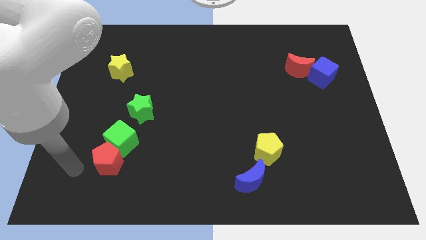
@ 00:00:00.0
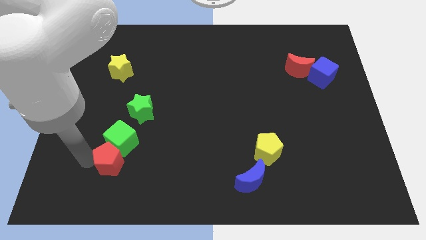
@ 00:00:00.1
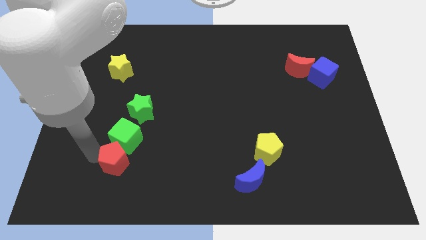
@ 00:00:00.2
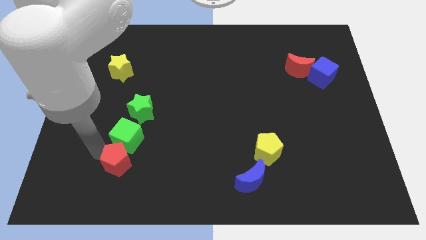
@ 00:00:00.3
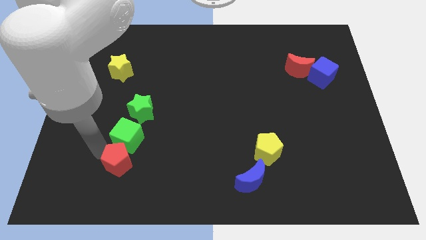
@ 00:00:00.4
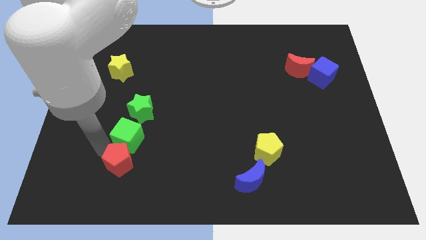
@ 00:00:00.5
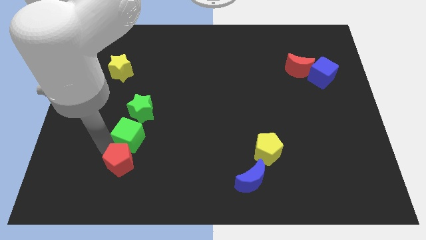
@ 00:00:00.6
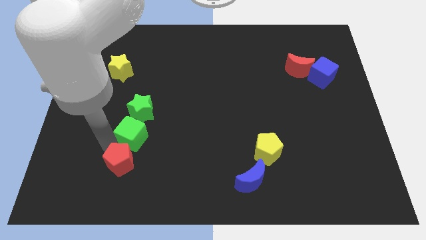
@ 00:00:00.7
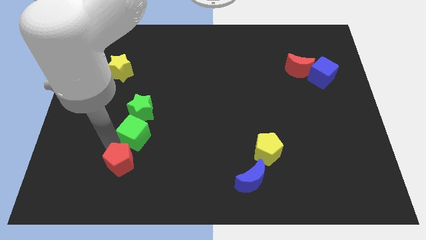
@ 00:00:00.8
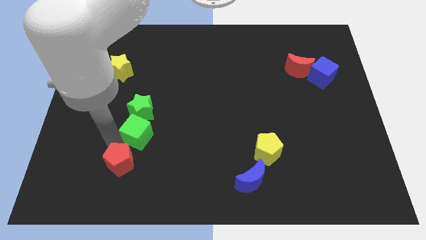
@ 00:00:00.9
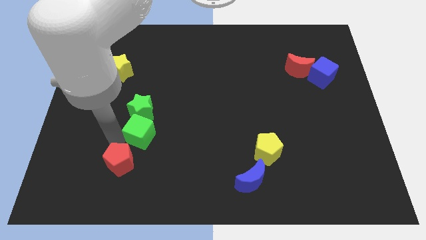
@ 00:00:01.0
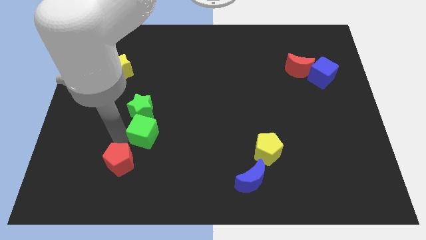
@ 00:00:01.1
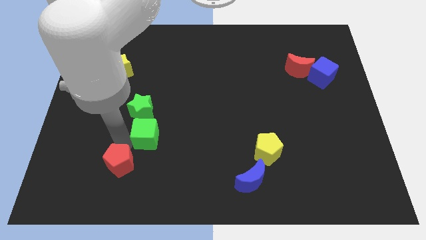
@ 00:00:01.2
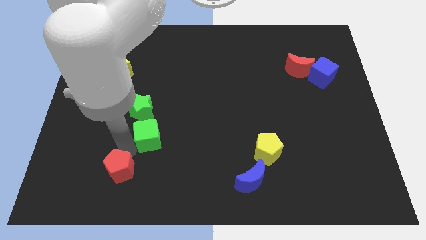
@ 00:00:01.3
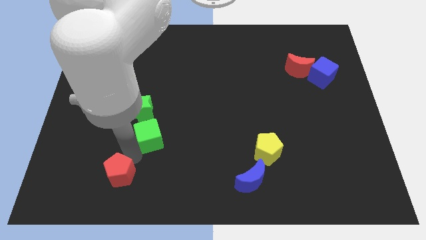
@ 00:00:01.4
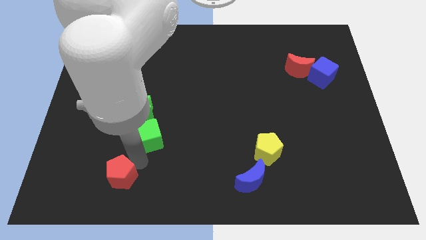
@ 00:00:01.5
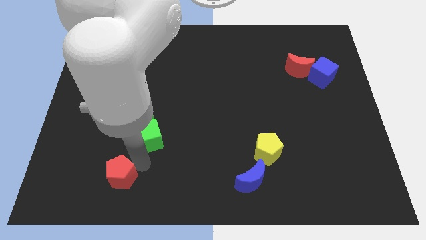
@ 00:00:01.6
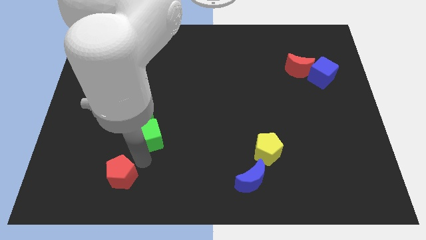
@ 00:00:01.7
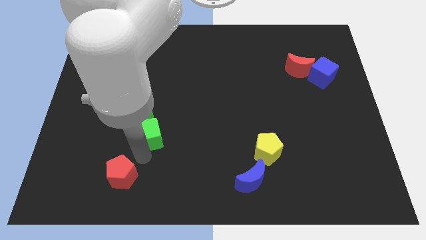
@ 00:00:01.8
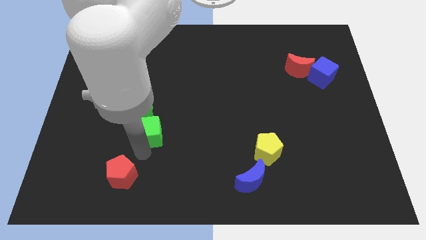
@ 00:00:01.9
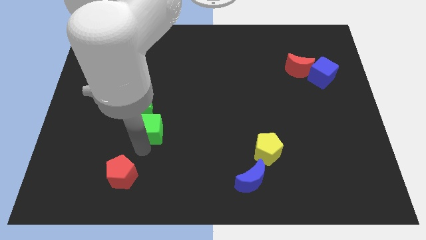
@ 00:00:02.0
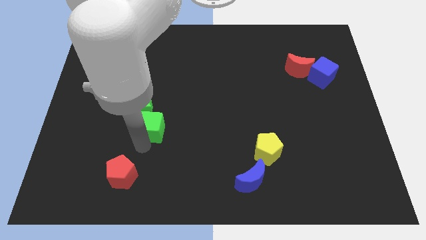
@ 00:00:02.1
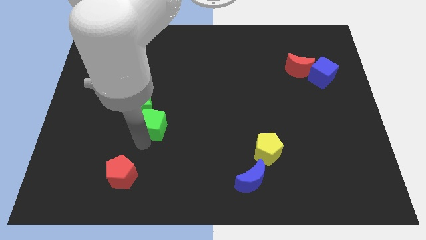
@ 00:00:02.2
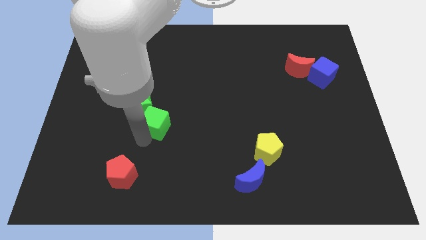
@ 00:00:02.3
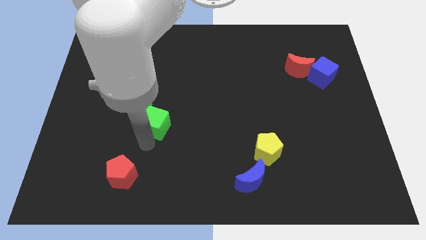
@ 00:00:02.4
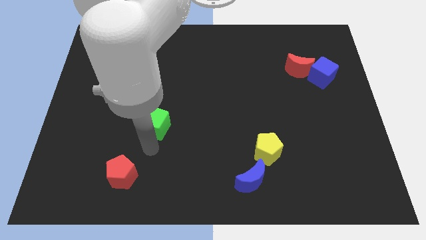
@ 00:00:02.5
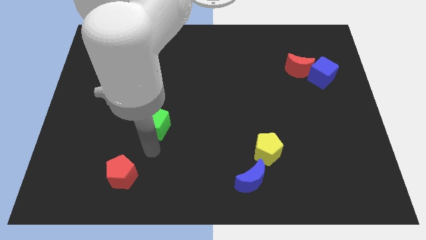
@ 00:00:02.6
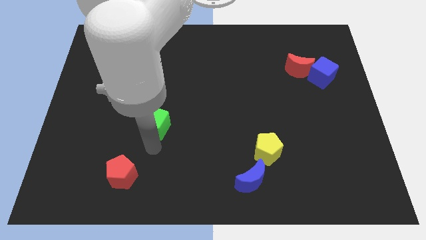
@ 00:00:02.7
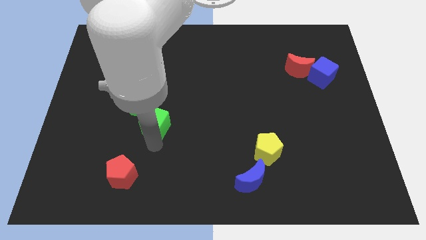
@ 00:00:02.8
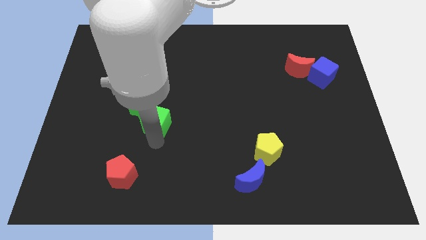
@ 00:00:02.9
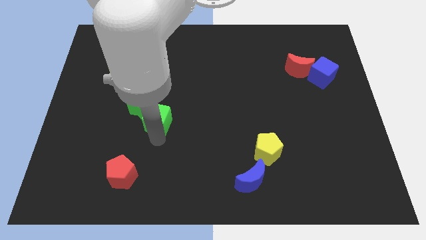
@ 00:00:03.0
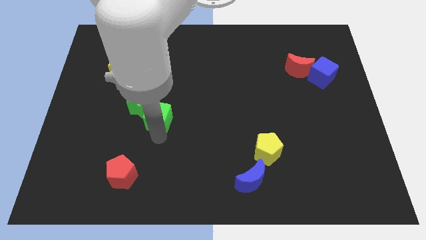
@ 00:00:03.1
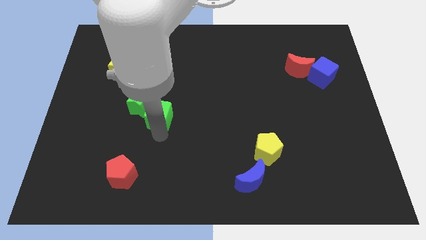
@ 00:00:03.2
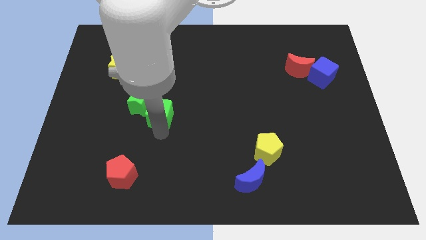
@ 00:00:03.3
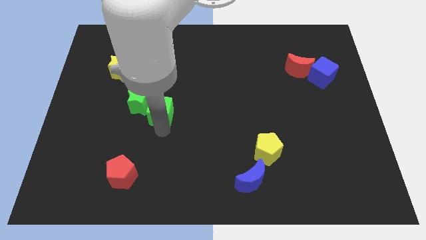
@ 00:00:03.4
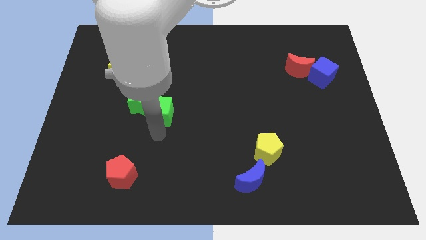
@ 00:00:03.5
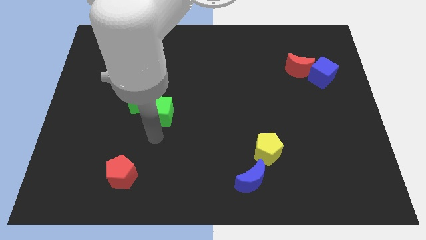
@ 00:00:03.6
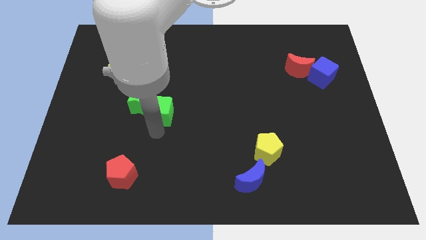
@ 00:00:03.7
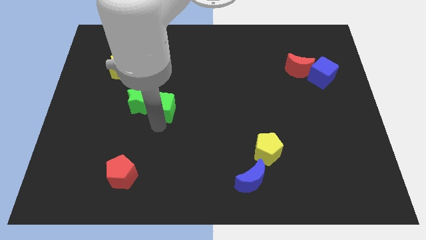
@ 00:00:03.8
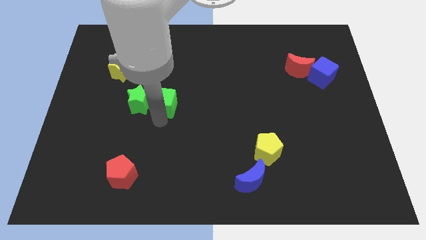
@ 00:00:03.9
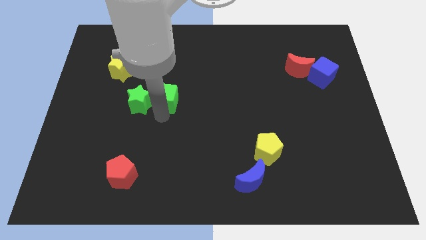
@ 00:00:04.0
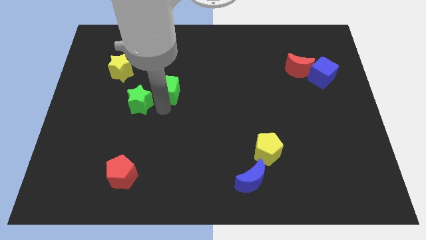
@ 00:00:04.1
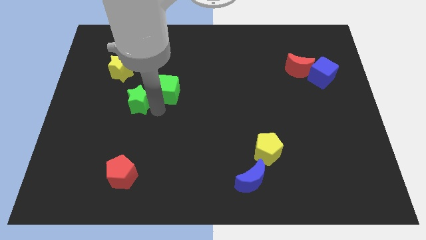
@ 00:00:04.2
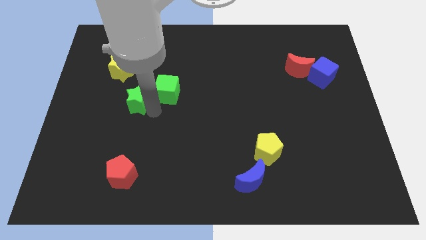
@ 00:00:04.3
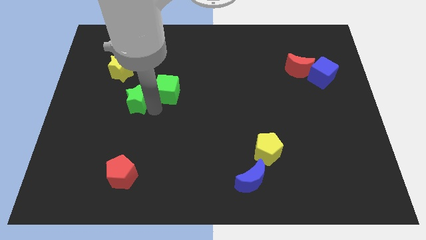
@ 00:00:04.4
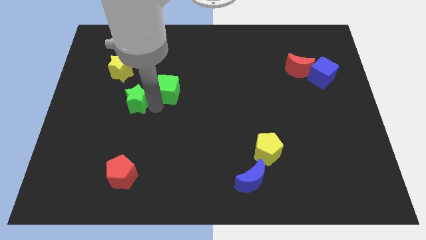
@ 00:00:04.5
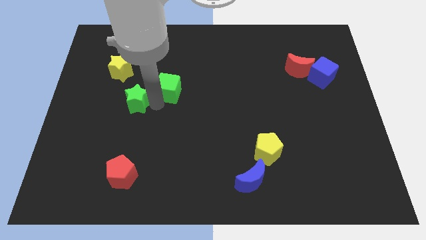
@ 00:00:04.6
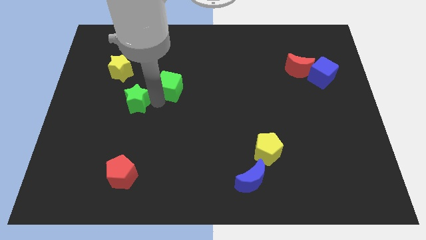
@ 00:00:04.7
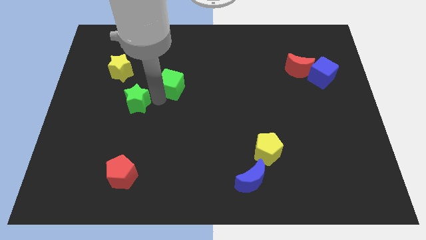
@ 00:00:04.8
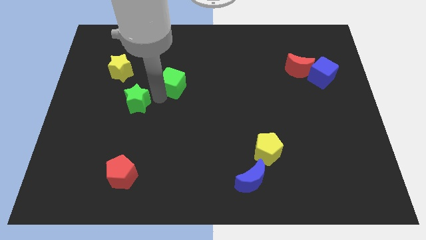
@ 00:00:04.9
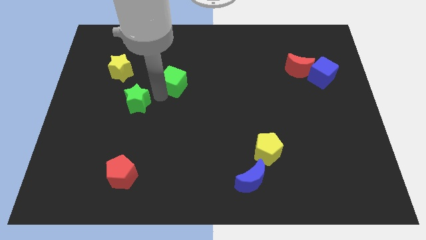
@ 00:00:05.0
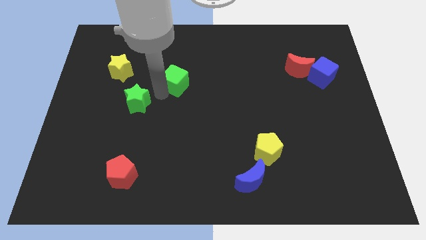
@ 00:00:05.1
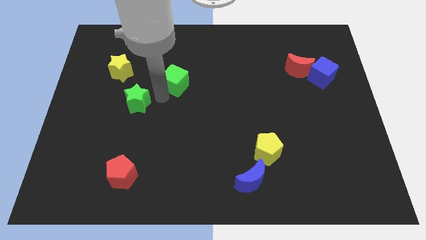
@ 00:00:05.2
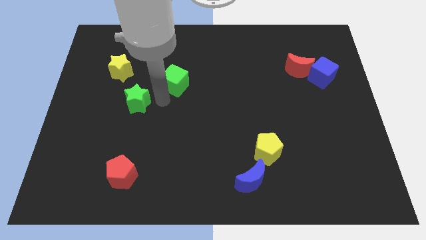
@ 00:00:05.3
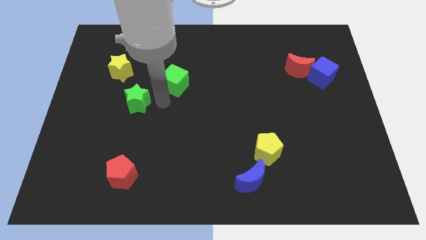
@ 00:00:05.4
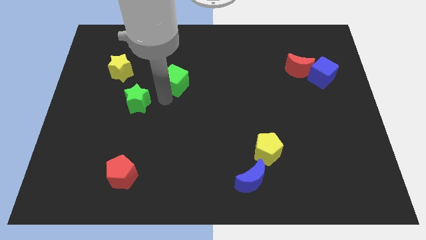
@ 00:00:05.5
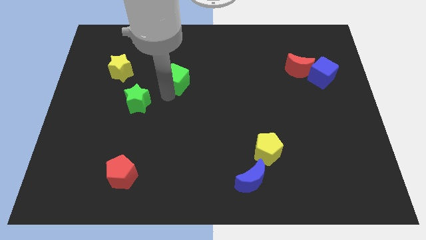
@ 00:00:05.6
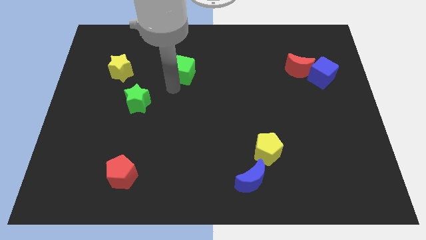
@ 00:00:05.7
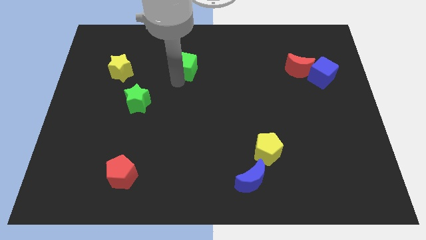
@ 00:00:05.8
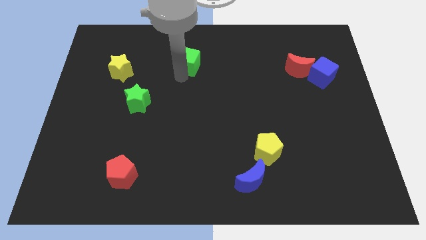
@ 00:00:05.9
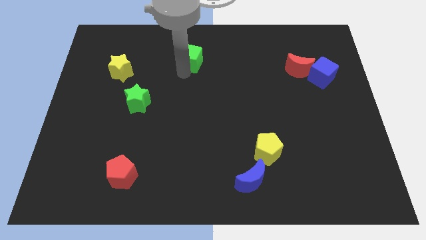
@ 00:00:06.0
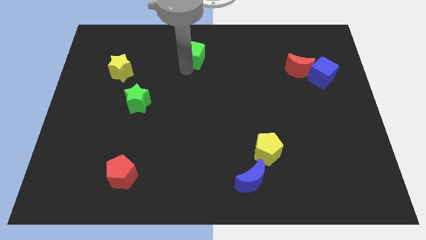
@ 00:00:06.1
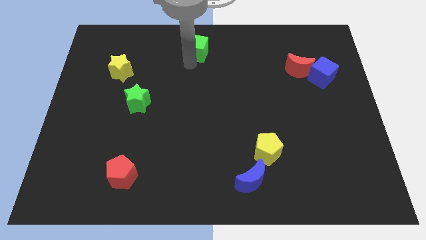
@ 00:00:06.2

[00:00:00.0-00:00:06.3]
put the green cube to the towards your base
